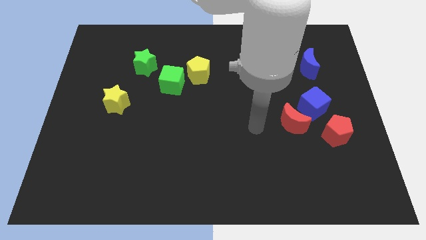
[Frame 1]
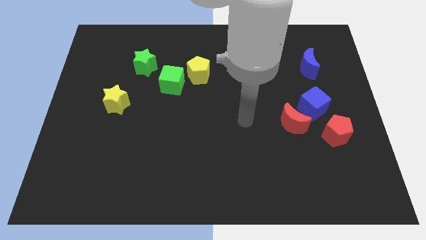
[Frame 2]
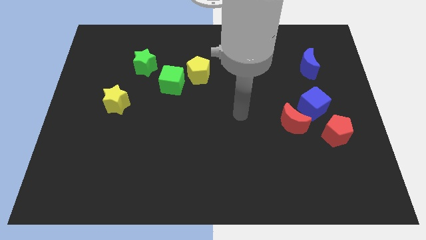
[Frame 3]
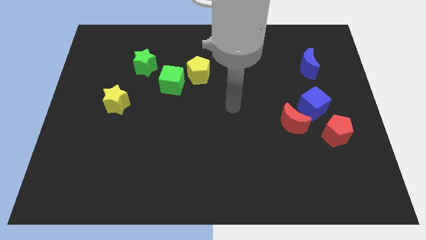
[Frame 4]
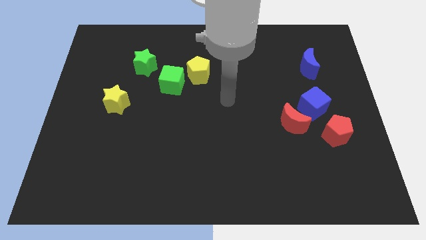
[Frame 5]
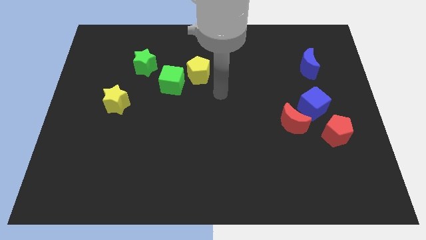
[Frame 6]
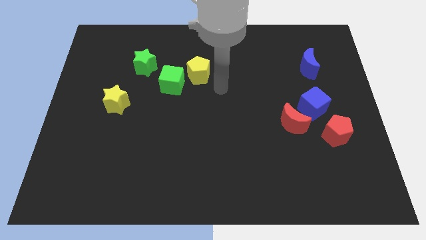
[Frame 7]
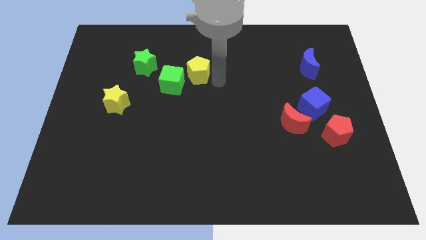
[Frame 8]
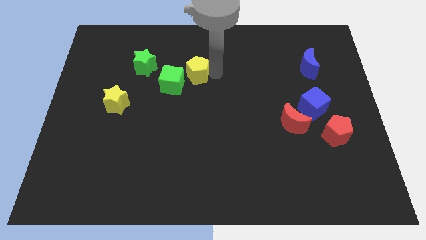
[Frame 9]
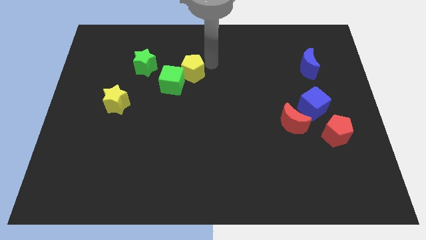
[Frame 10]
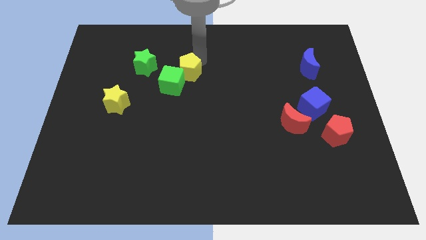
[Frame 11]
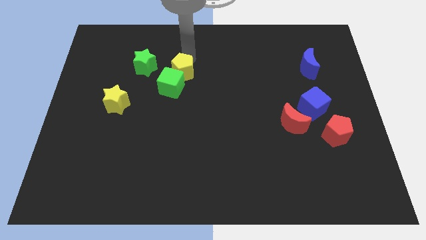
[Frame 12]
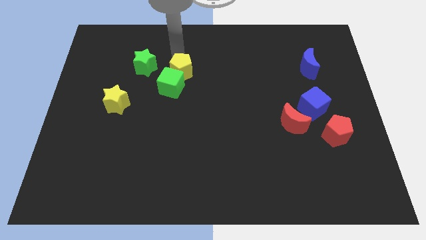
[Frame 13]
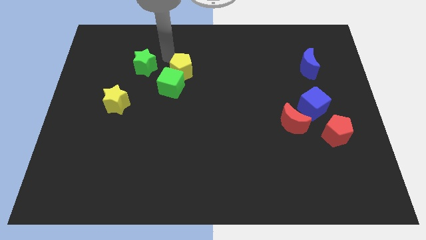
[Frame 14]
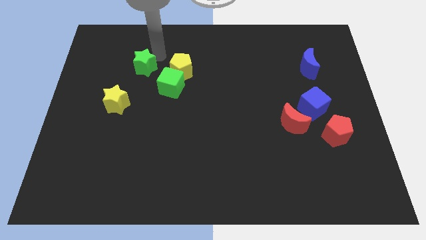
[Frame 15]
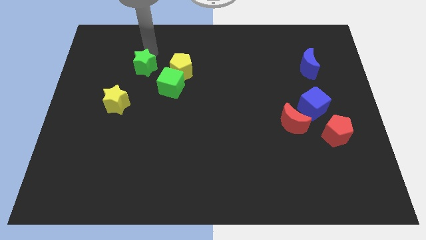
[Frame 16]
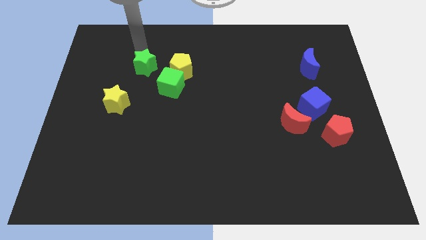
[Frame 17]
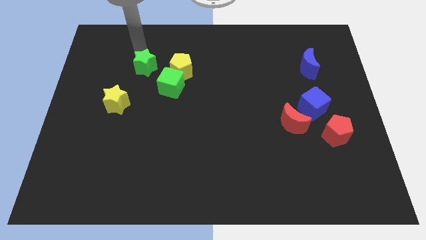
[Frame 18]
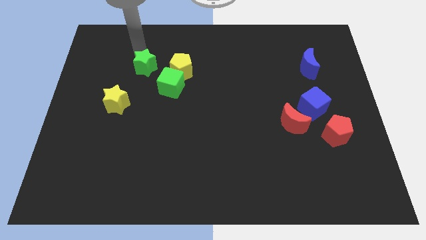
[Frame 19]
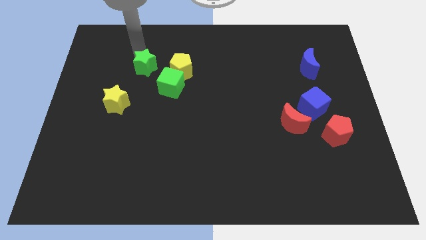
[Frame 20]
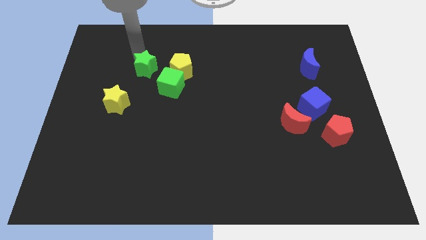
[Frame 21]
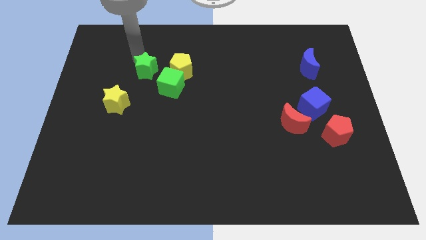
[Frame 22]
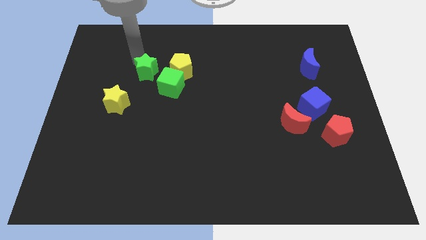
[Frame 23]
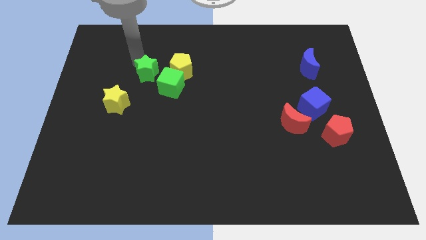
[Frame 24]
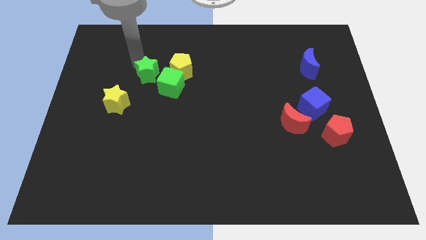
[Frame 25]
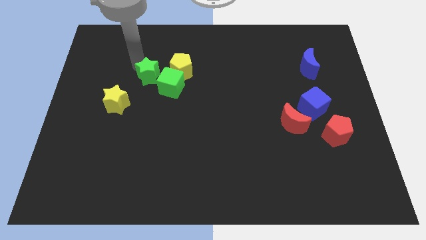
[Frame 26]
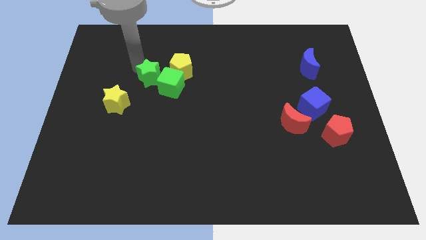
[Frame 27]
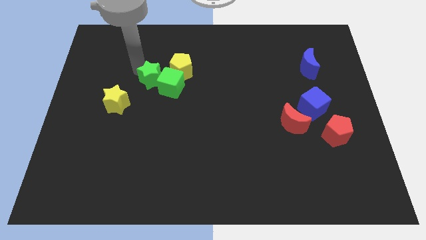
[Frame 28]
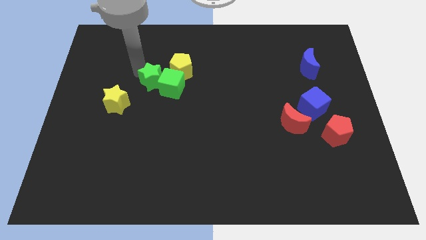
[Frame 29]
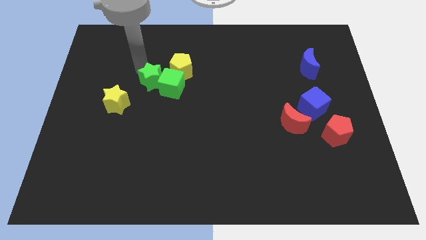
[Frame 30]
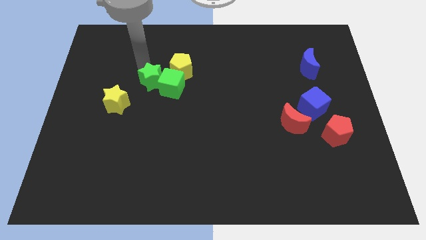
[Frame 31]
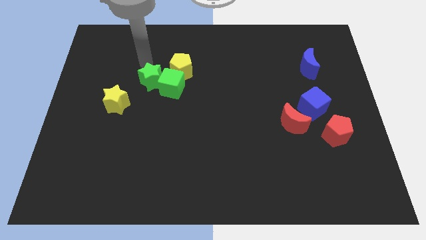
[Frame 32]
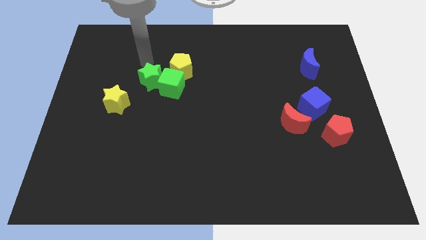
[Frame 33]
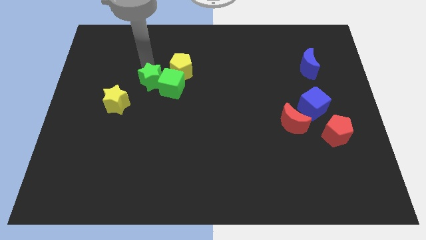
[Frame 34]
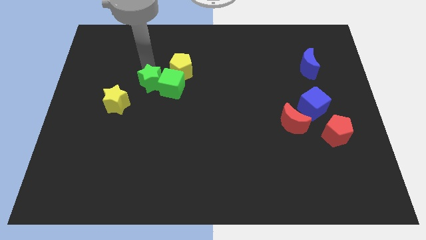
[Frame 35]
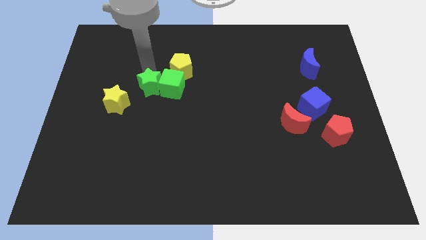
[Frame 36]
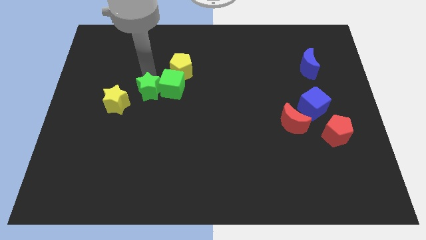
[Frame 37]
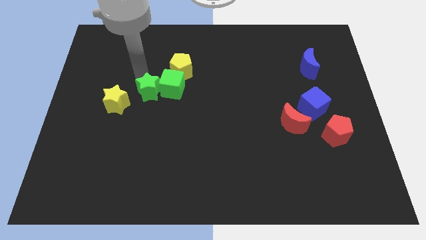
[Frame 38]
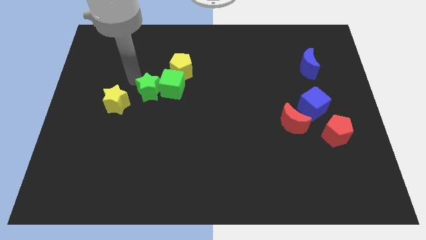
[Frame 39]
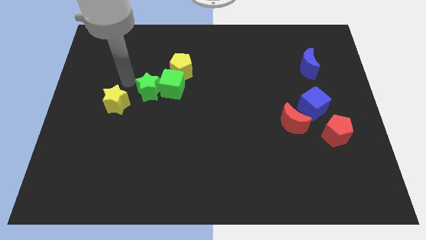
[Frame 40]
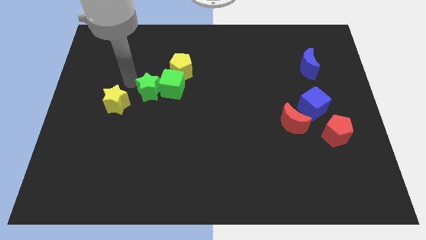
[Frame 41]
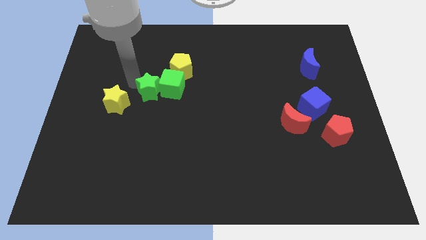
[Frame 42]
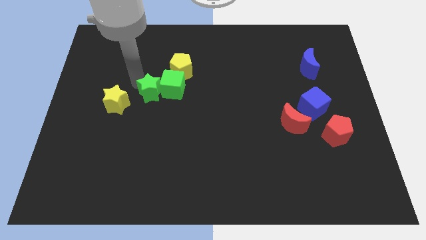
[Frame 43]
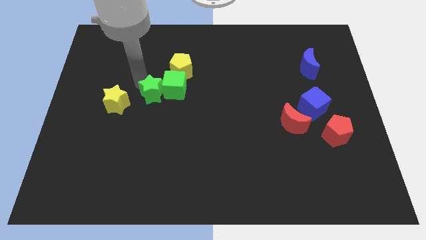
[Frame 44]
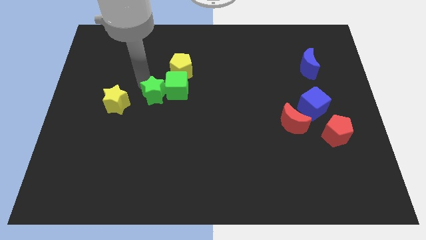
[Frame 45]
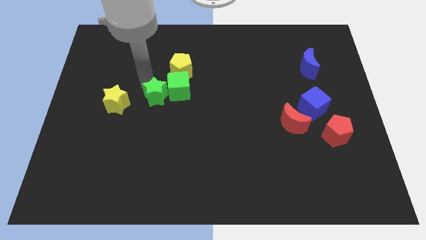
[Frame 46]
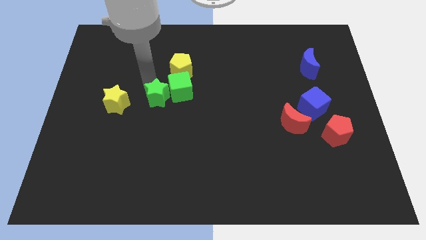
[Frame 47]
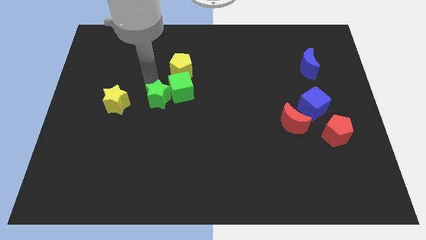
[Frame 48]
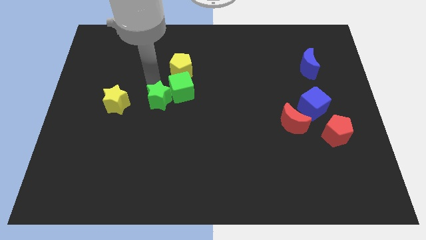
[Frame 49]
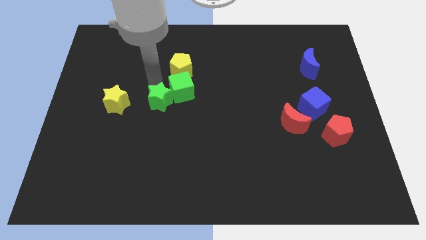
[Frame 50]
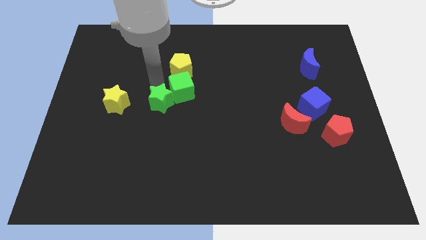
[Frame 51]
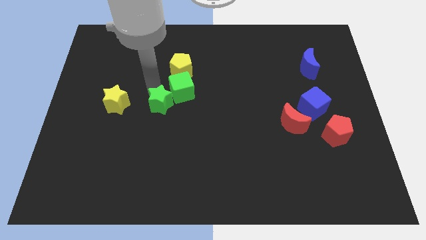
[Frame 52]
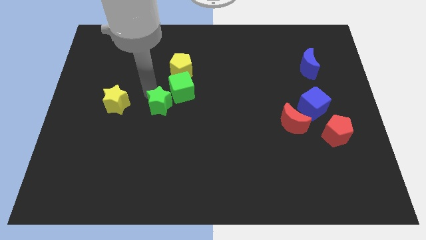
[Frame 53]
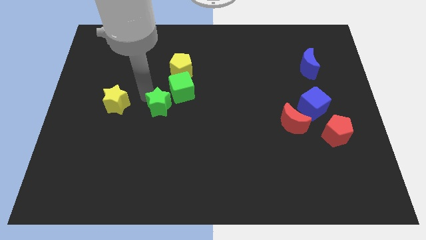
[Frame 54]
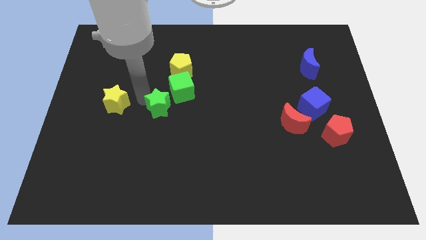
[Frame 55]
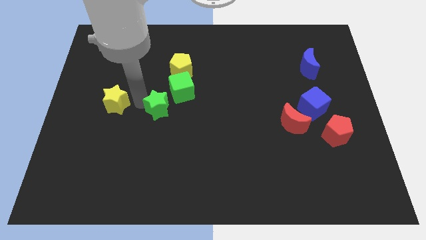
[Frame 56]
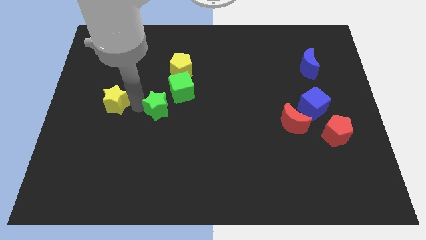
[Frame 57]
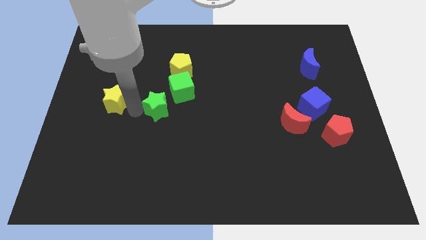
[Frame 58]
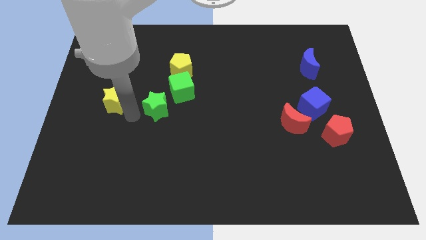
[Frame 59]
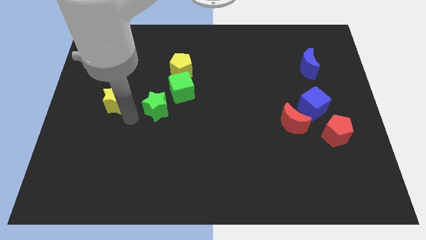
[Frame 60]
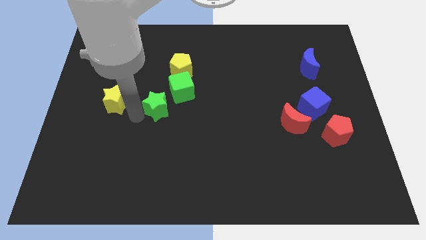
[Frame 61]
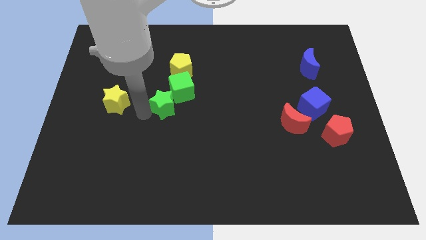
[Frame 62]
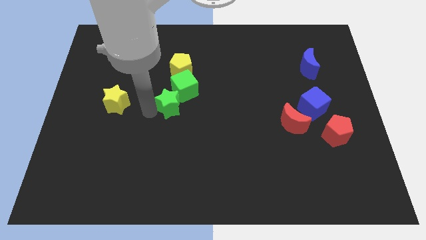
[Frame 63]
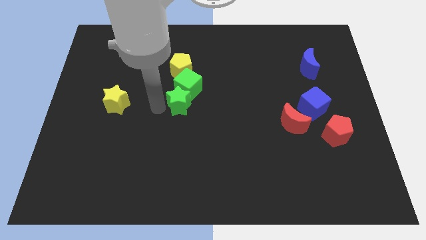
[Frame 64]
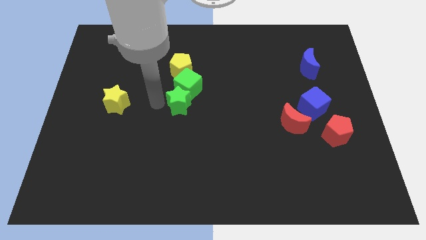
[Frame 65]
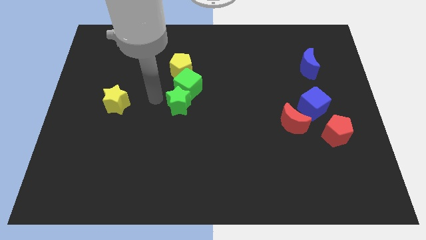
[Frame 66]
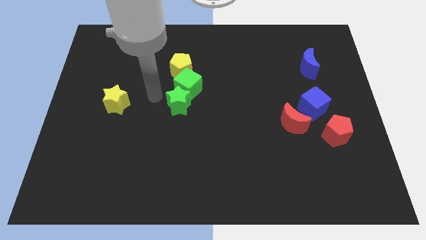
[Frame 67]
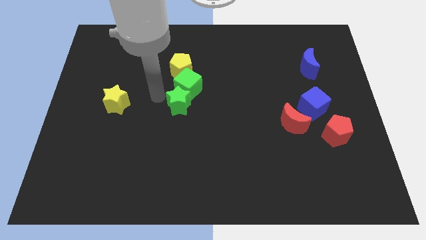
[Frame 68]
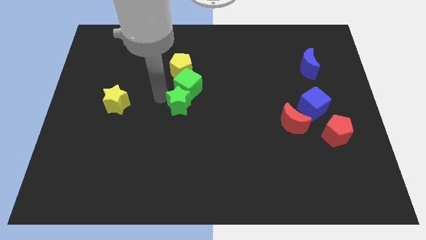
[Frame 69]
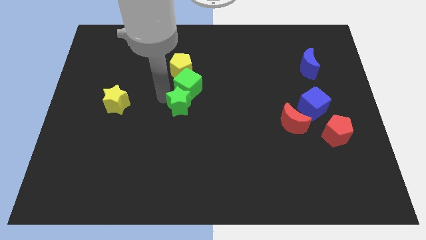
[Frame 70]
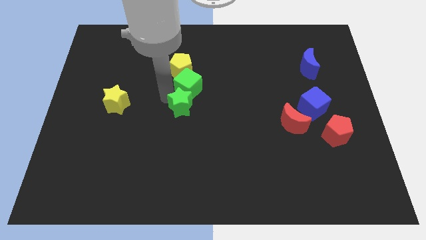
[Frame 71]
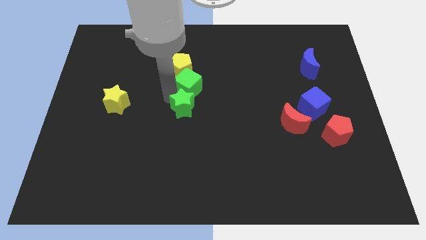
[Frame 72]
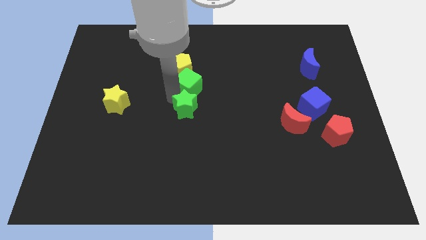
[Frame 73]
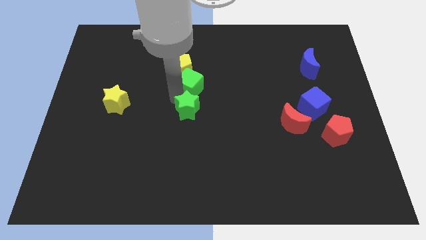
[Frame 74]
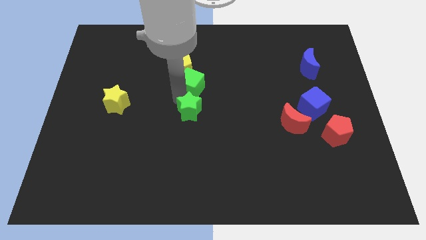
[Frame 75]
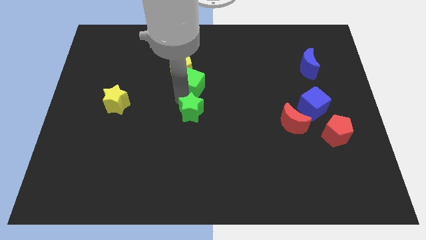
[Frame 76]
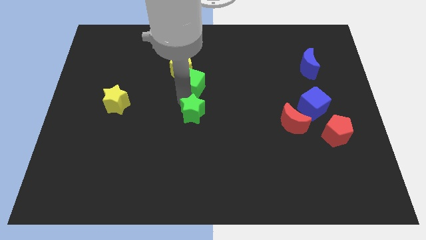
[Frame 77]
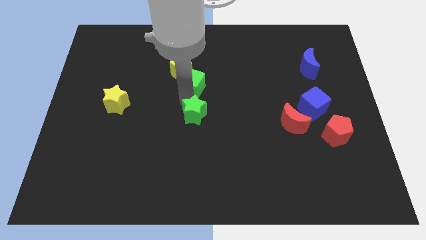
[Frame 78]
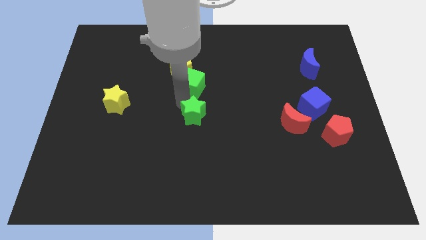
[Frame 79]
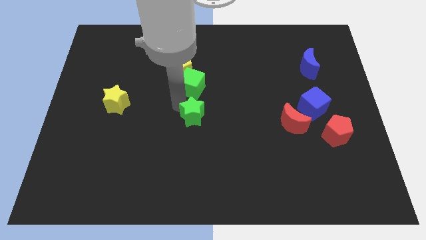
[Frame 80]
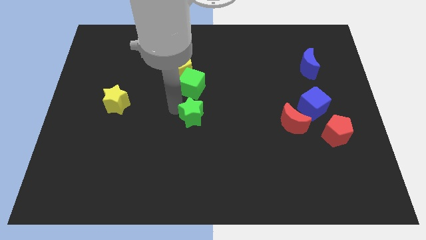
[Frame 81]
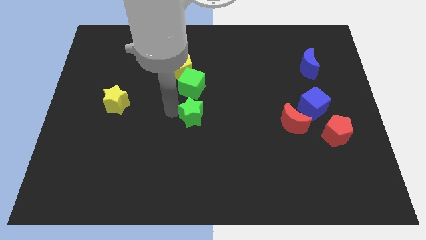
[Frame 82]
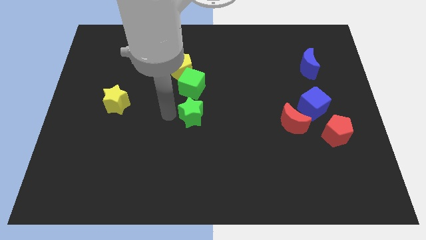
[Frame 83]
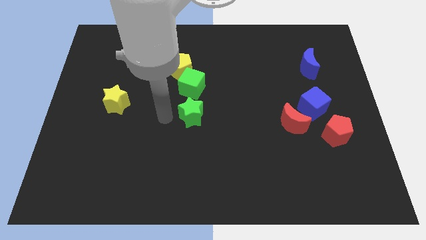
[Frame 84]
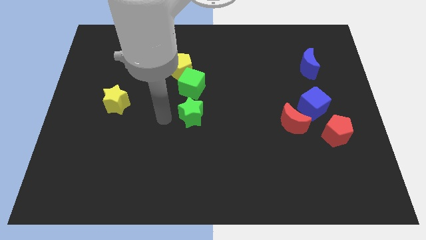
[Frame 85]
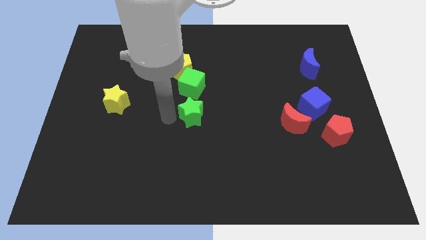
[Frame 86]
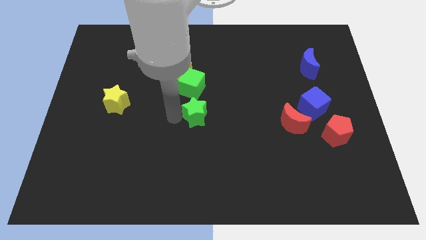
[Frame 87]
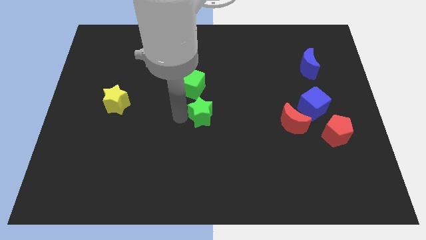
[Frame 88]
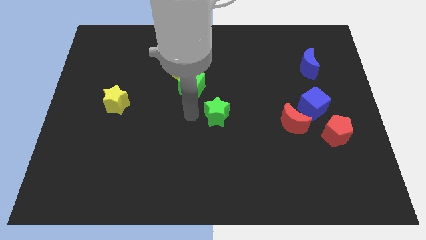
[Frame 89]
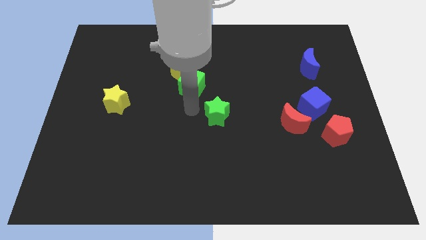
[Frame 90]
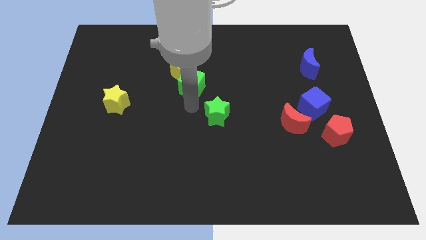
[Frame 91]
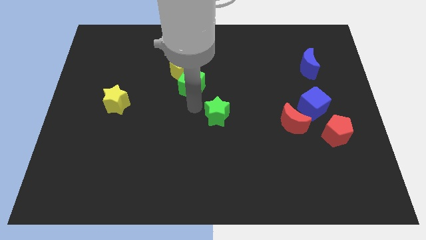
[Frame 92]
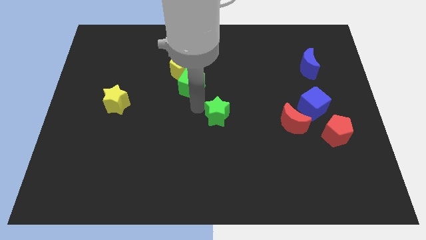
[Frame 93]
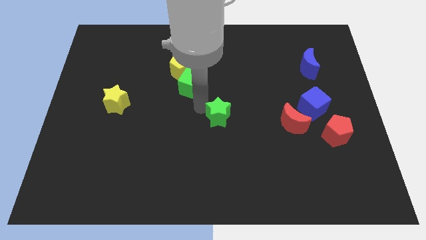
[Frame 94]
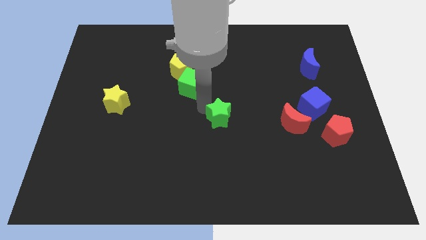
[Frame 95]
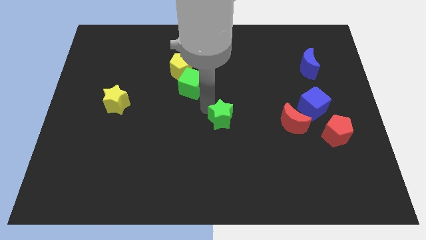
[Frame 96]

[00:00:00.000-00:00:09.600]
move the green star to the left side of the red moon
